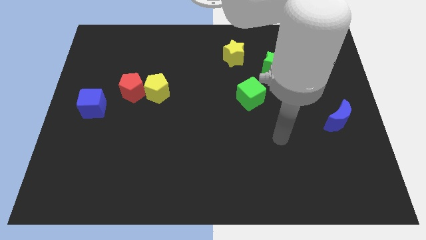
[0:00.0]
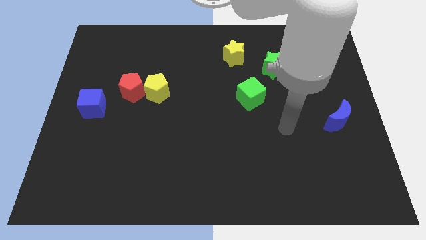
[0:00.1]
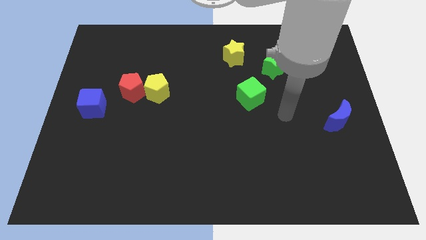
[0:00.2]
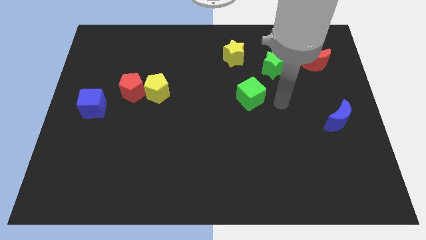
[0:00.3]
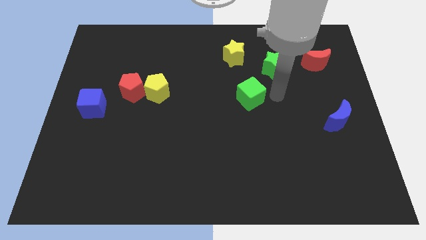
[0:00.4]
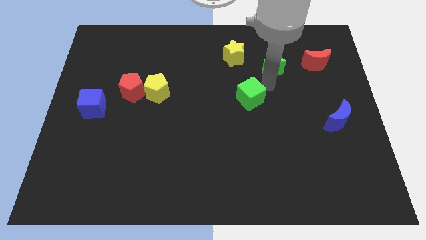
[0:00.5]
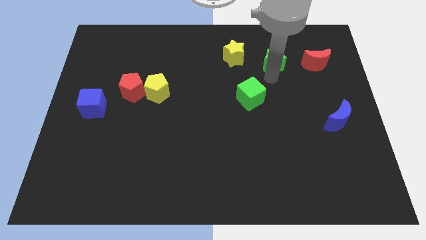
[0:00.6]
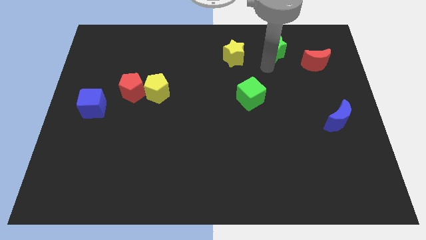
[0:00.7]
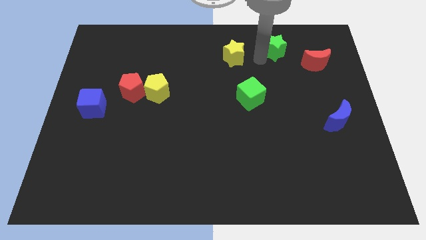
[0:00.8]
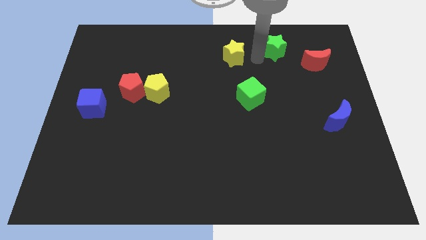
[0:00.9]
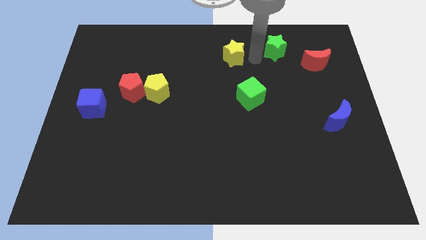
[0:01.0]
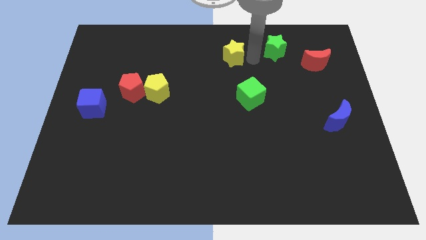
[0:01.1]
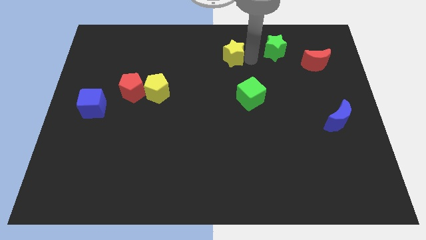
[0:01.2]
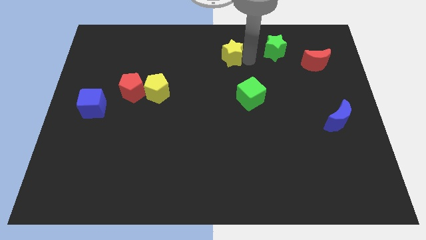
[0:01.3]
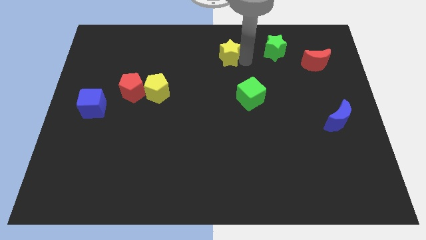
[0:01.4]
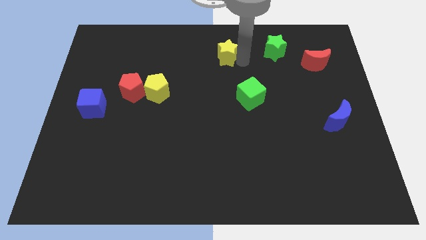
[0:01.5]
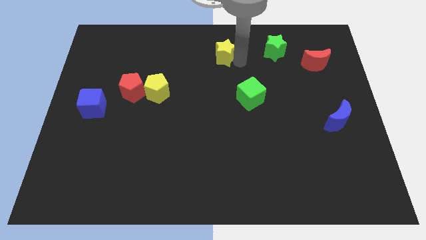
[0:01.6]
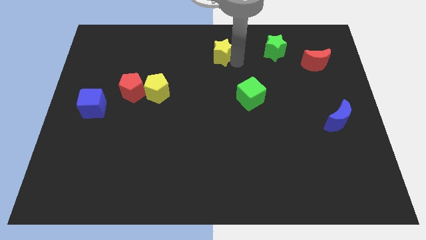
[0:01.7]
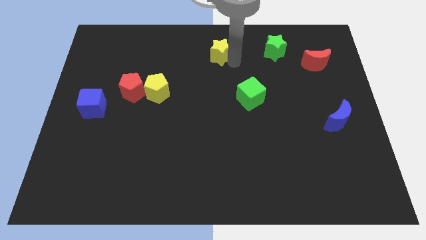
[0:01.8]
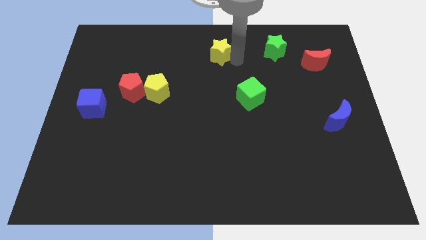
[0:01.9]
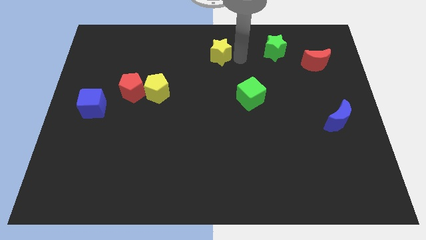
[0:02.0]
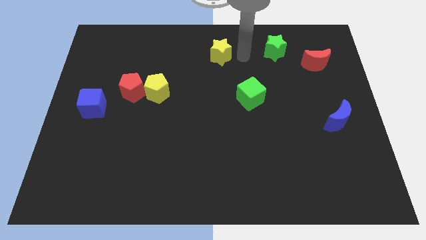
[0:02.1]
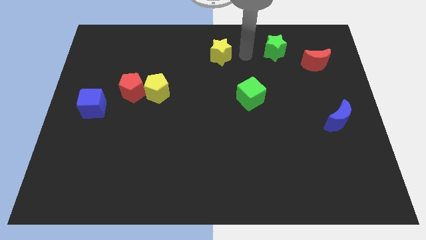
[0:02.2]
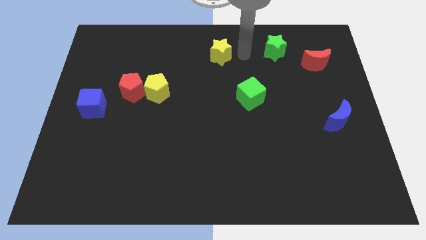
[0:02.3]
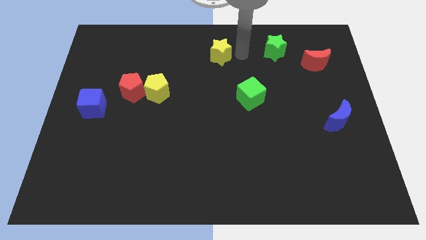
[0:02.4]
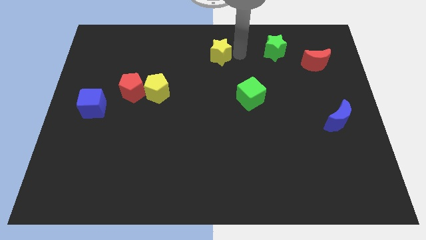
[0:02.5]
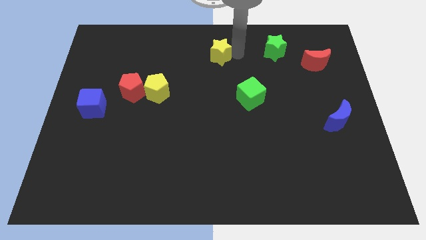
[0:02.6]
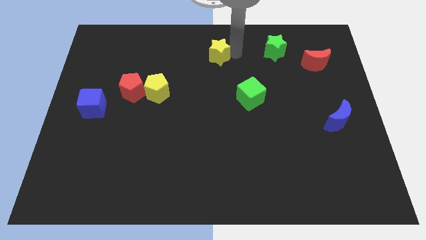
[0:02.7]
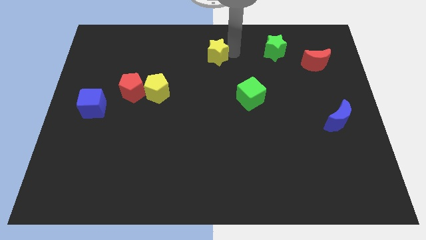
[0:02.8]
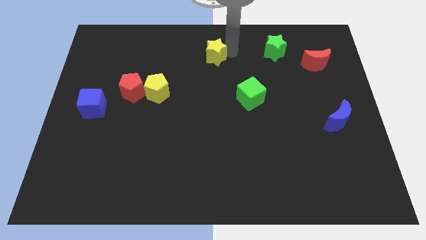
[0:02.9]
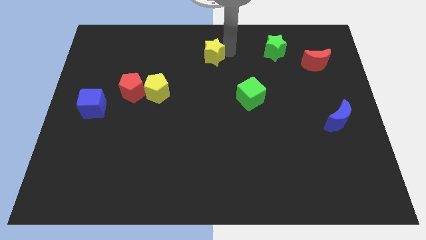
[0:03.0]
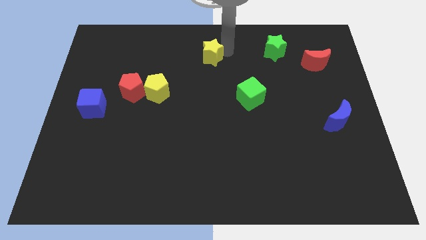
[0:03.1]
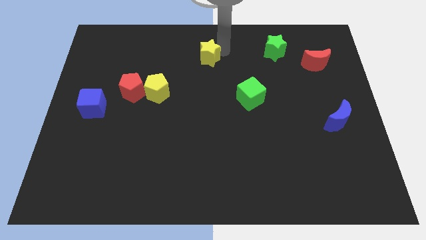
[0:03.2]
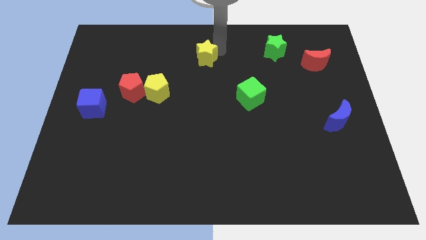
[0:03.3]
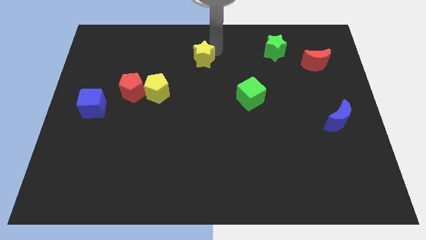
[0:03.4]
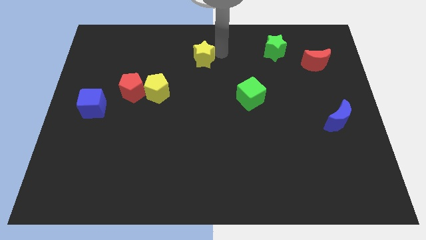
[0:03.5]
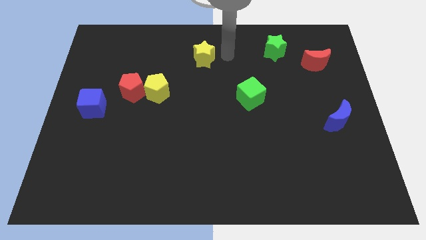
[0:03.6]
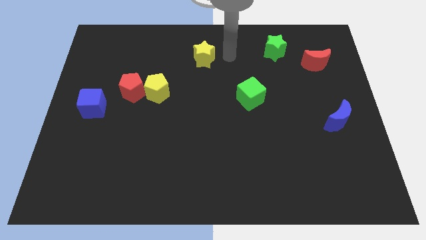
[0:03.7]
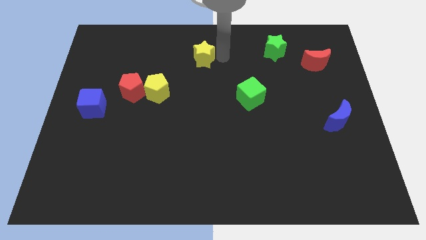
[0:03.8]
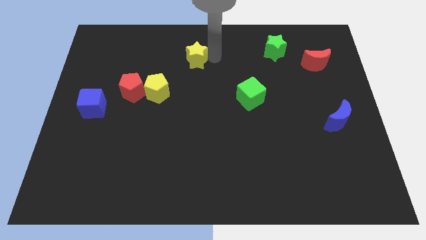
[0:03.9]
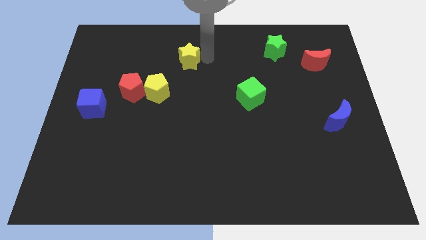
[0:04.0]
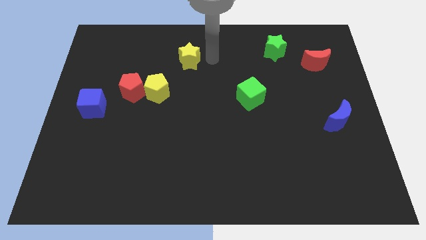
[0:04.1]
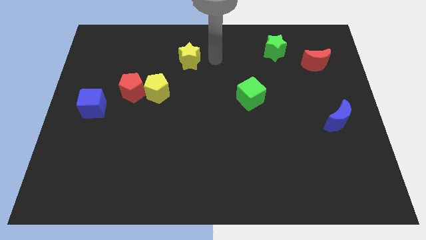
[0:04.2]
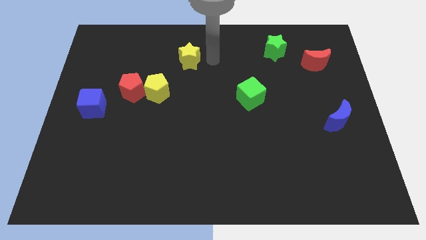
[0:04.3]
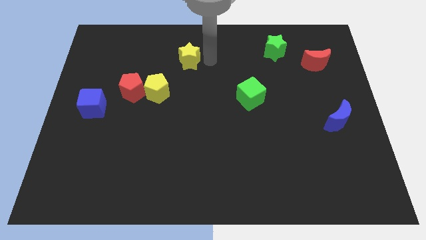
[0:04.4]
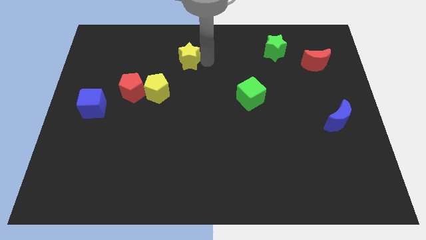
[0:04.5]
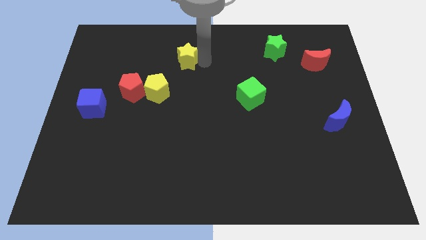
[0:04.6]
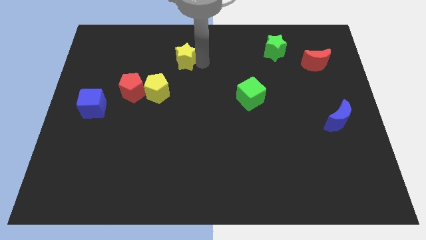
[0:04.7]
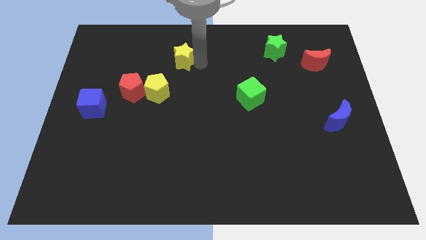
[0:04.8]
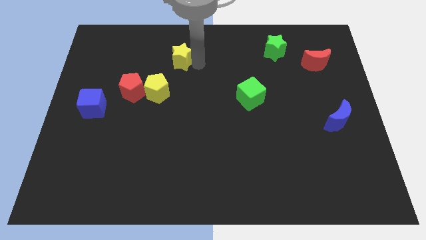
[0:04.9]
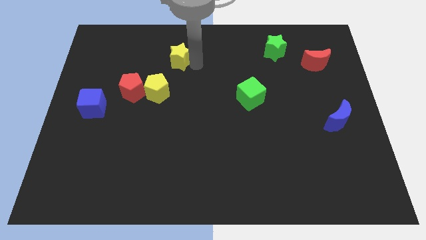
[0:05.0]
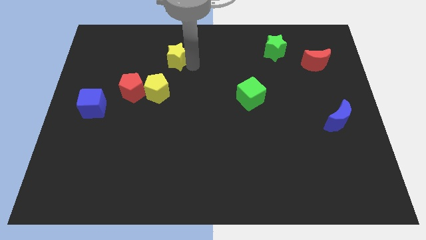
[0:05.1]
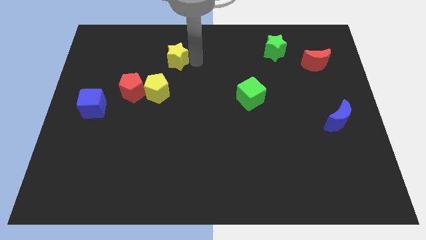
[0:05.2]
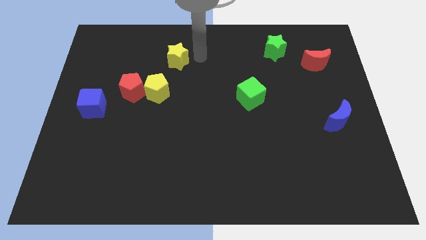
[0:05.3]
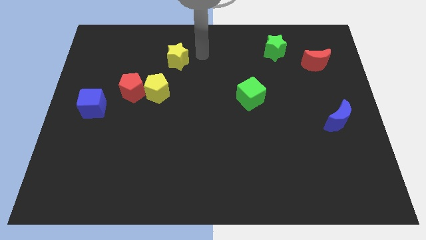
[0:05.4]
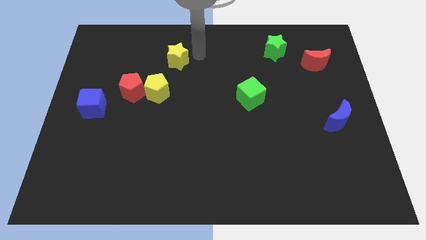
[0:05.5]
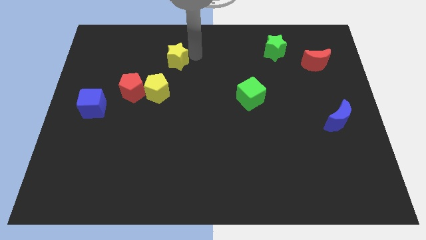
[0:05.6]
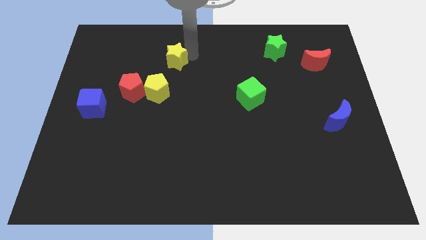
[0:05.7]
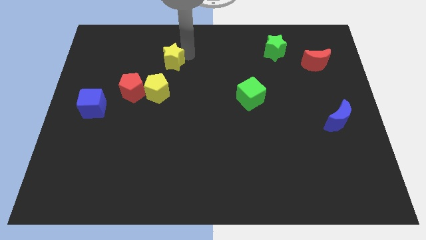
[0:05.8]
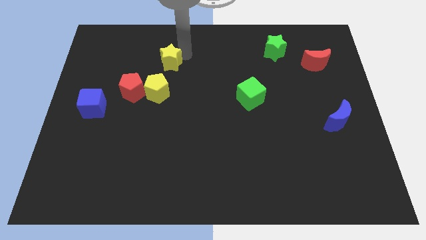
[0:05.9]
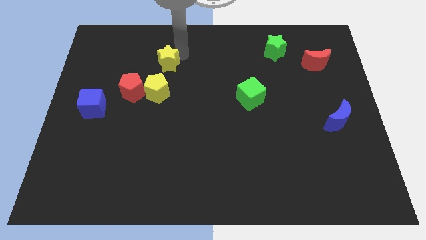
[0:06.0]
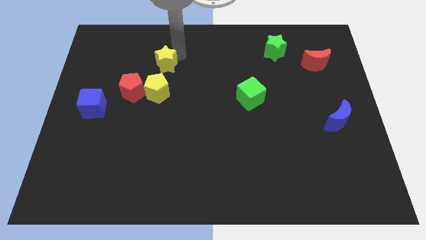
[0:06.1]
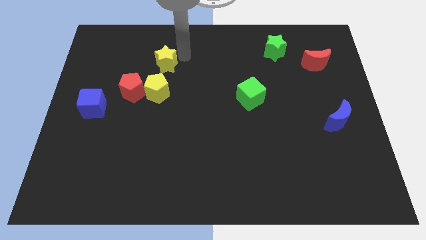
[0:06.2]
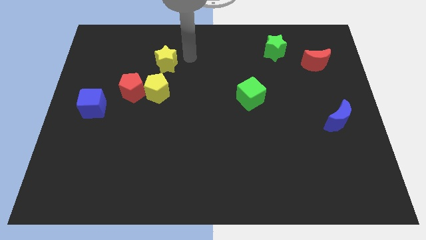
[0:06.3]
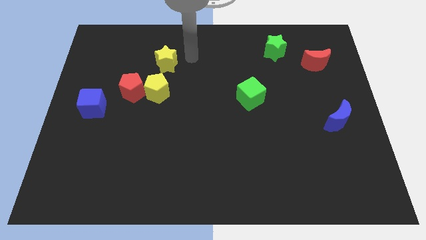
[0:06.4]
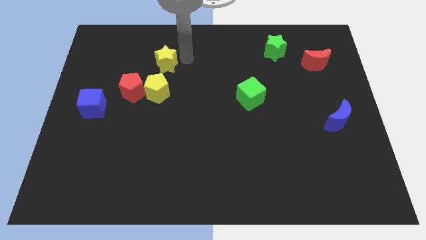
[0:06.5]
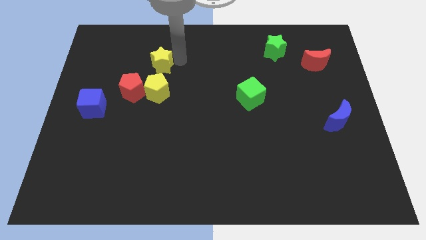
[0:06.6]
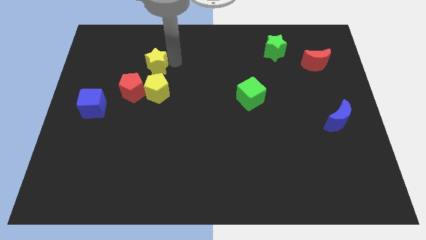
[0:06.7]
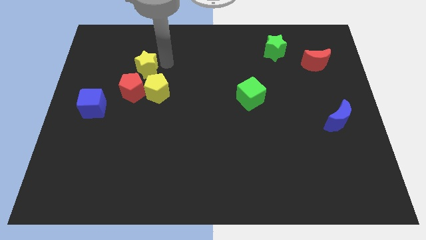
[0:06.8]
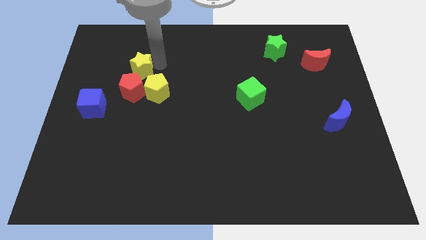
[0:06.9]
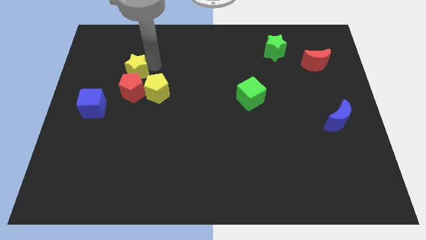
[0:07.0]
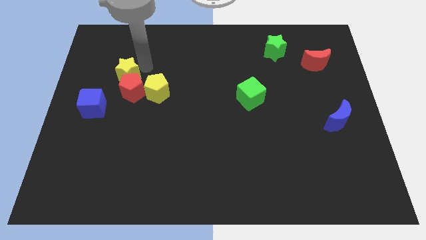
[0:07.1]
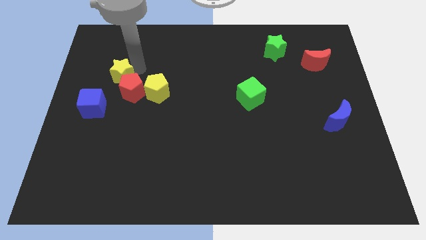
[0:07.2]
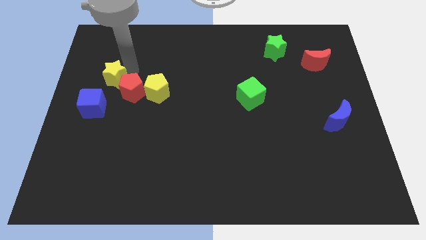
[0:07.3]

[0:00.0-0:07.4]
slide the yellow star to the left side of the yellow pentagon
